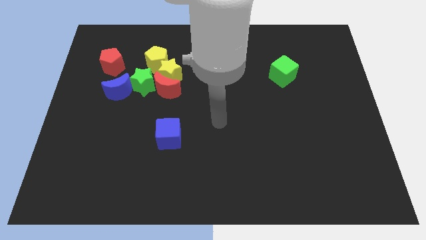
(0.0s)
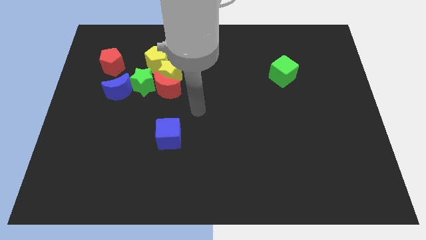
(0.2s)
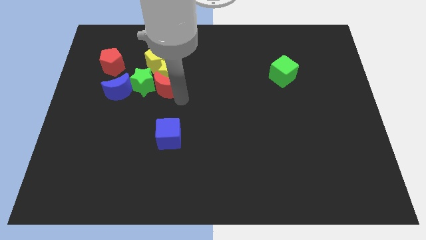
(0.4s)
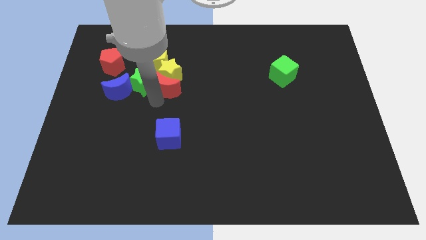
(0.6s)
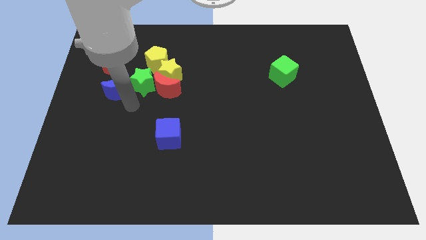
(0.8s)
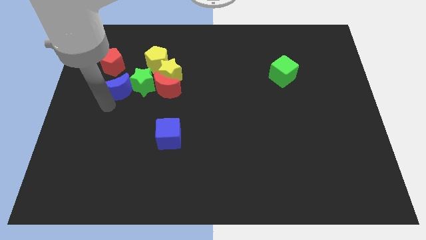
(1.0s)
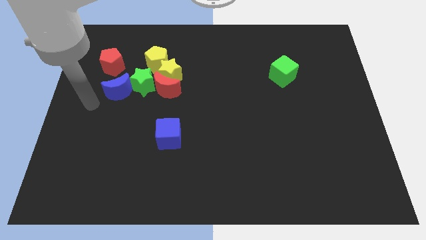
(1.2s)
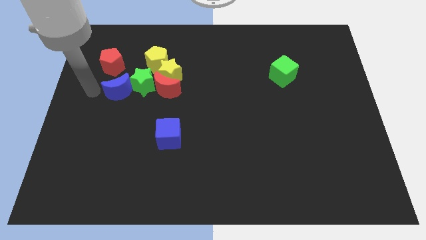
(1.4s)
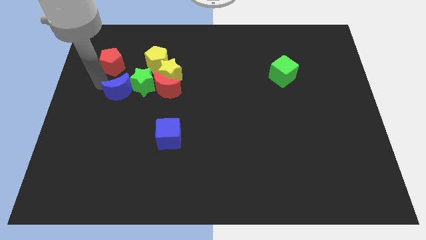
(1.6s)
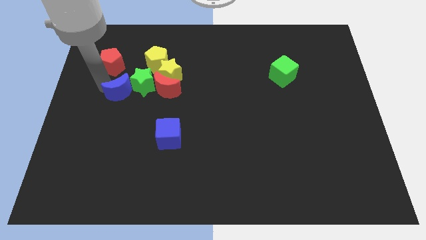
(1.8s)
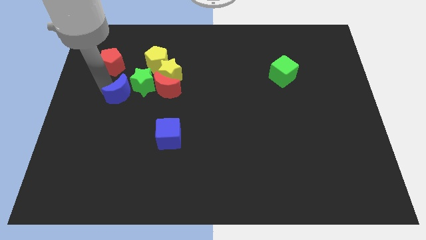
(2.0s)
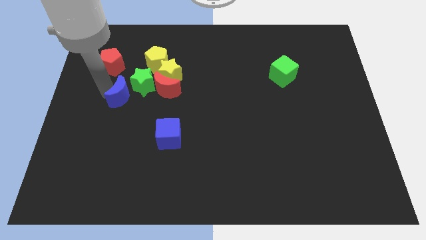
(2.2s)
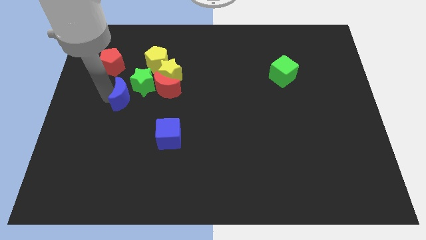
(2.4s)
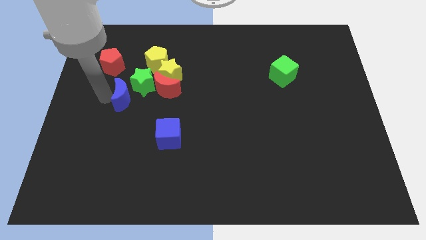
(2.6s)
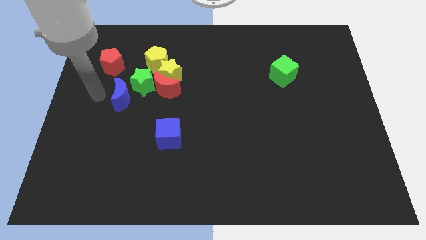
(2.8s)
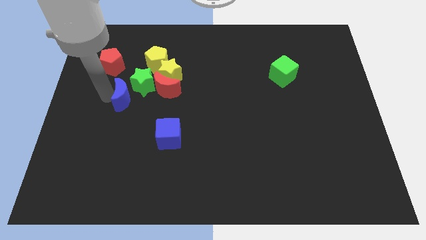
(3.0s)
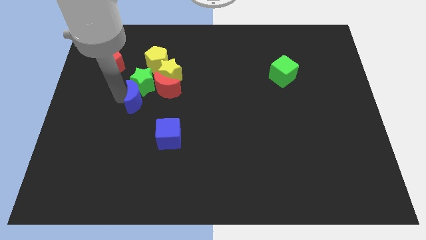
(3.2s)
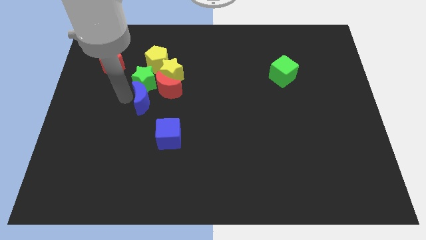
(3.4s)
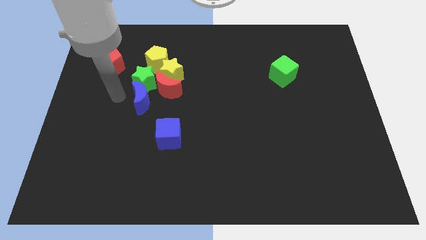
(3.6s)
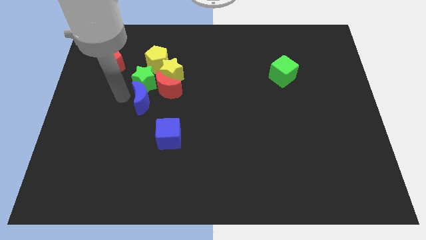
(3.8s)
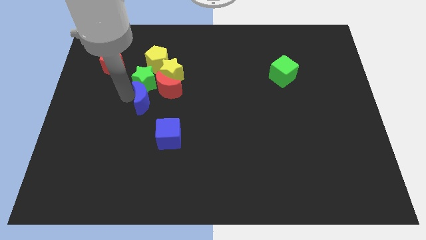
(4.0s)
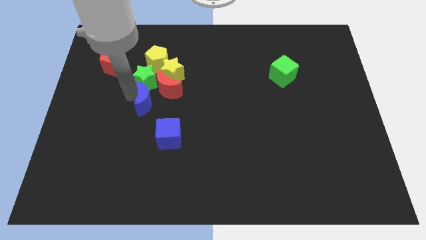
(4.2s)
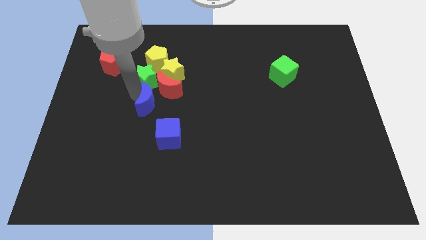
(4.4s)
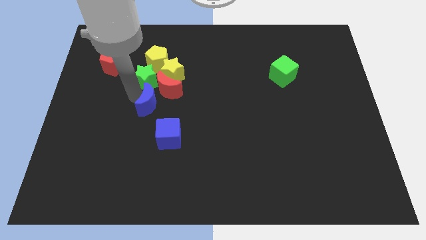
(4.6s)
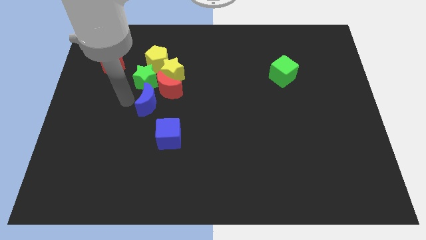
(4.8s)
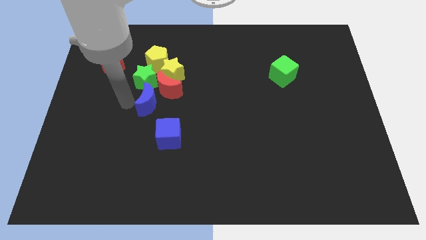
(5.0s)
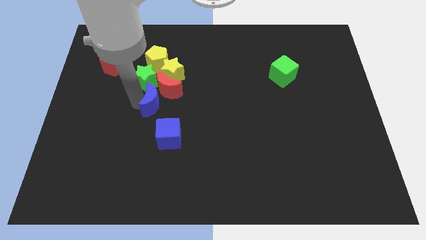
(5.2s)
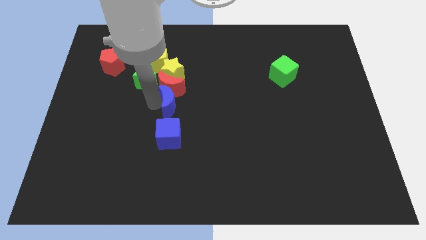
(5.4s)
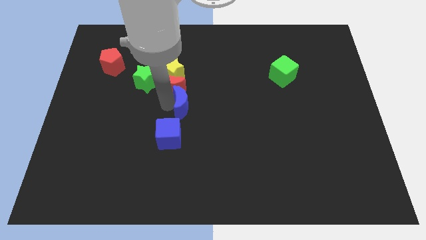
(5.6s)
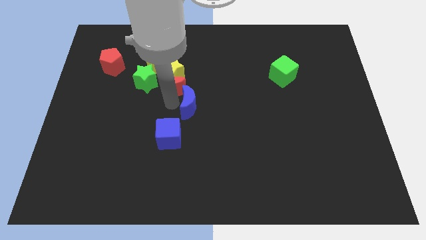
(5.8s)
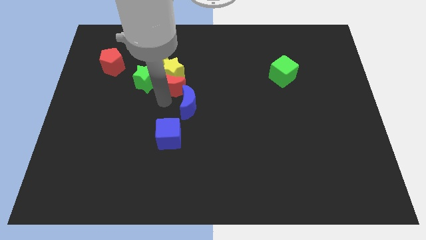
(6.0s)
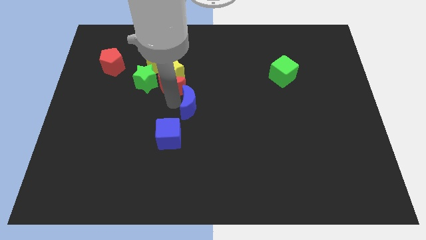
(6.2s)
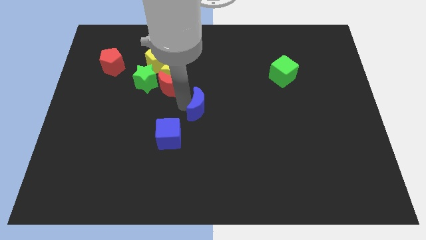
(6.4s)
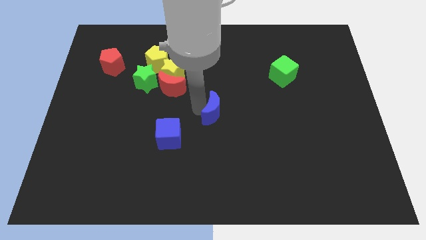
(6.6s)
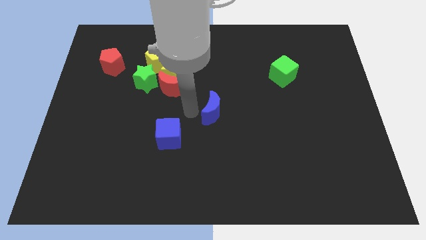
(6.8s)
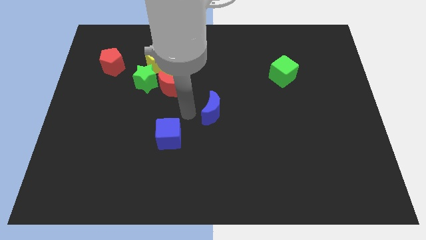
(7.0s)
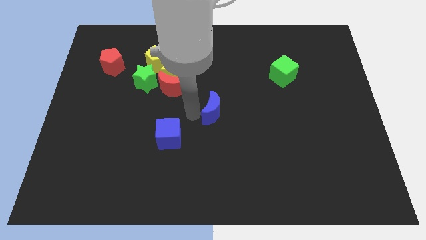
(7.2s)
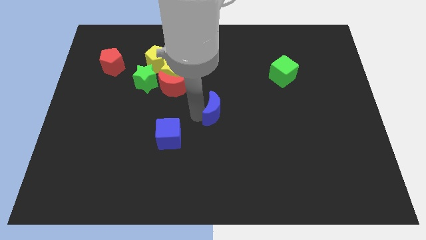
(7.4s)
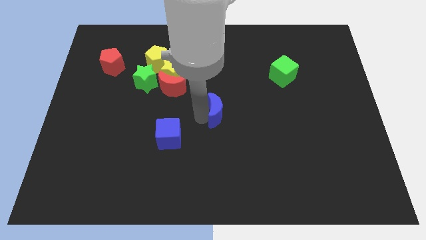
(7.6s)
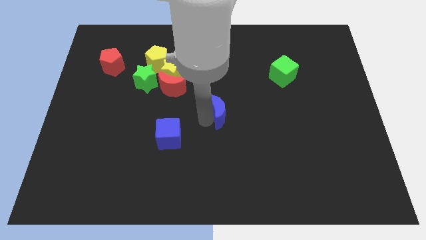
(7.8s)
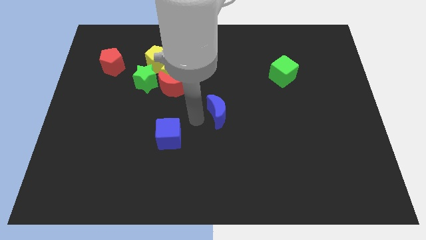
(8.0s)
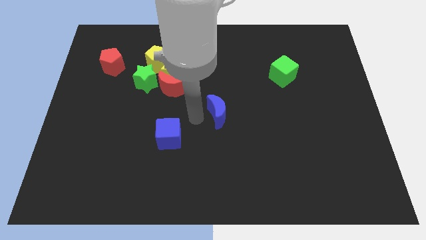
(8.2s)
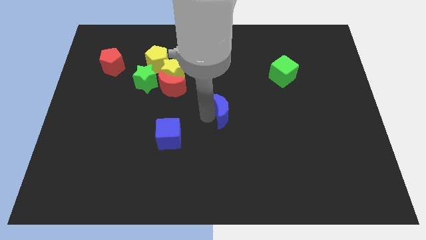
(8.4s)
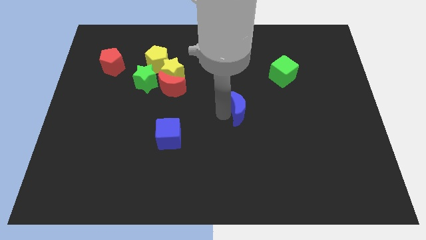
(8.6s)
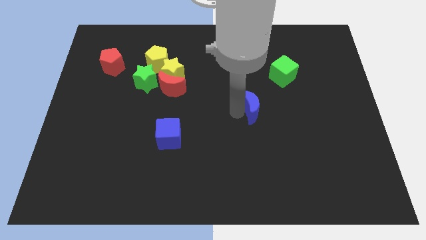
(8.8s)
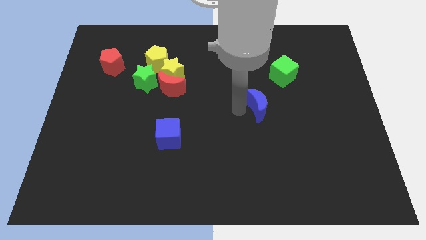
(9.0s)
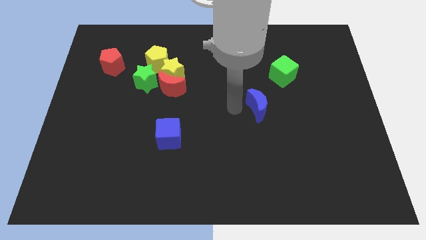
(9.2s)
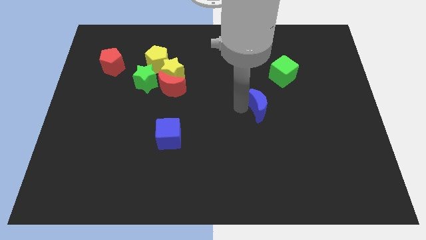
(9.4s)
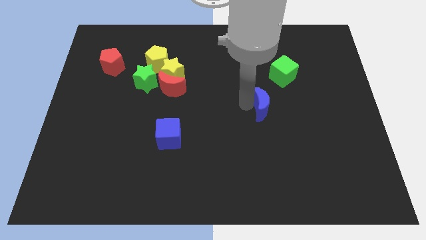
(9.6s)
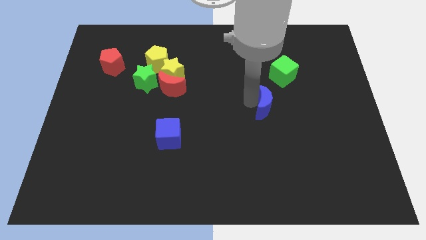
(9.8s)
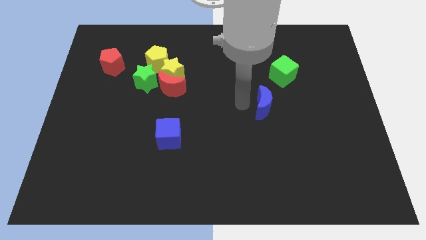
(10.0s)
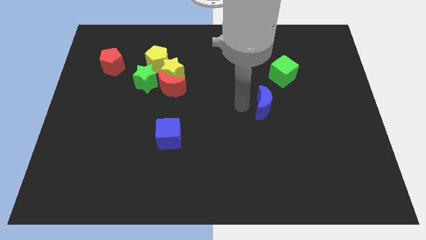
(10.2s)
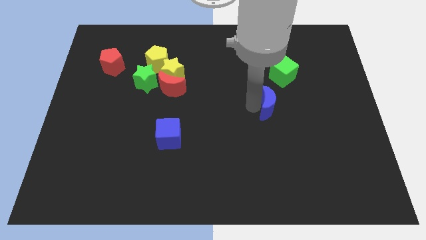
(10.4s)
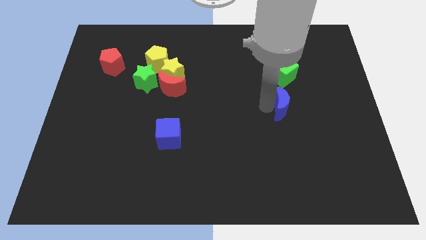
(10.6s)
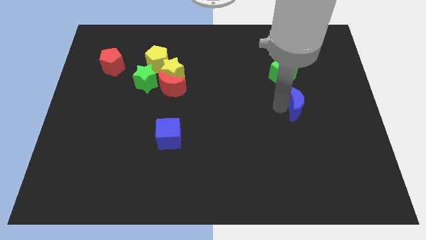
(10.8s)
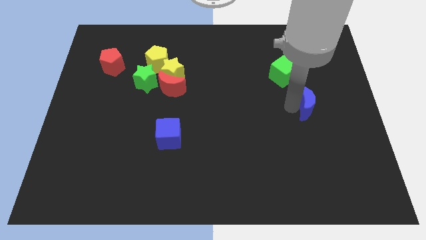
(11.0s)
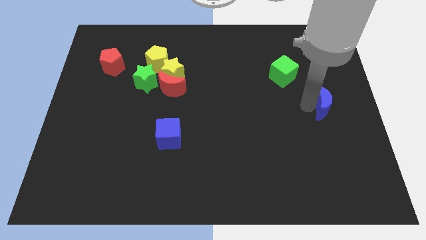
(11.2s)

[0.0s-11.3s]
move the blue moon to the right side

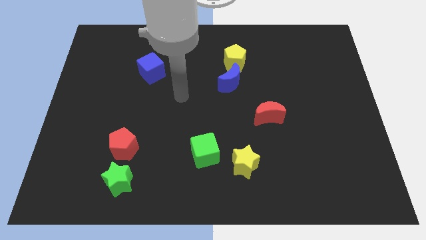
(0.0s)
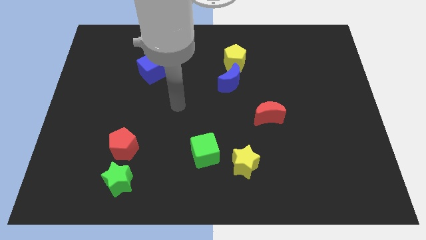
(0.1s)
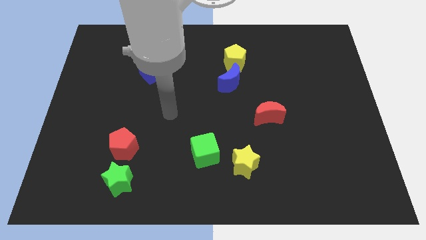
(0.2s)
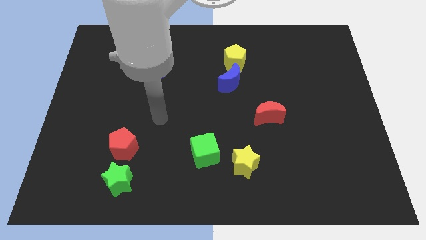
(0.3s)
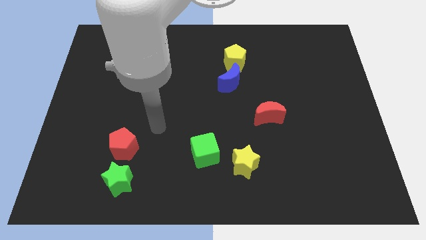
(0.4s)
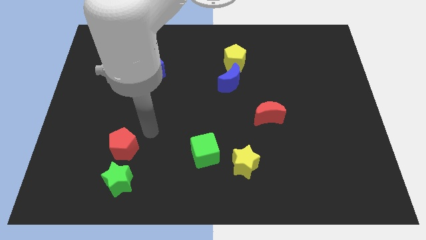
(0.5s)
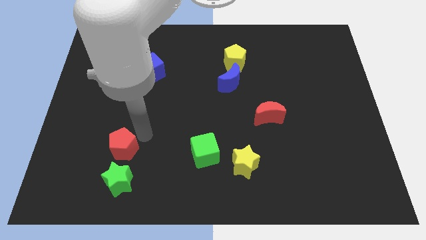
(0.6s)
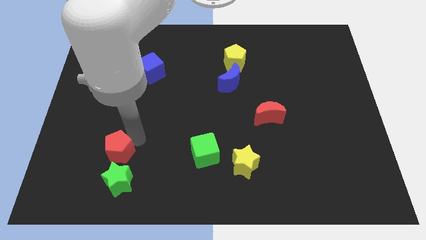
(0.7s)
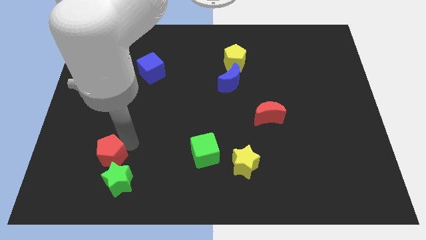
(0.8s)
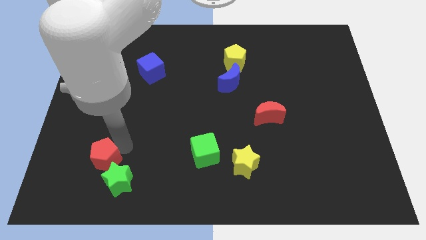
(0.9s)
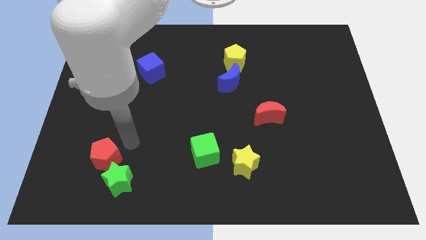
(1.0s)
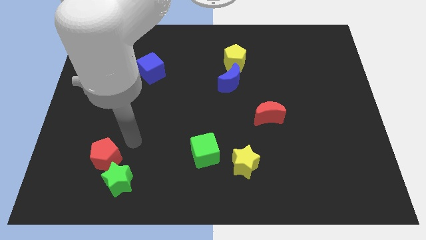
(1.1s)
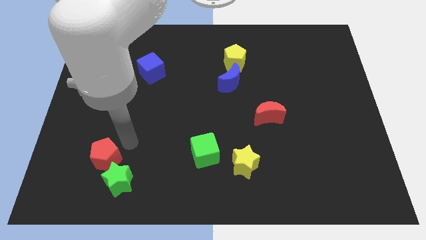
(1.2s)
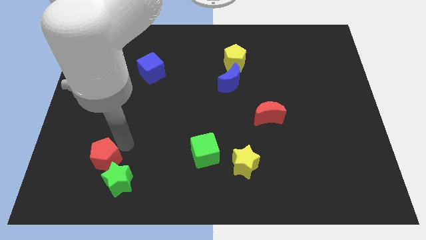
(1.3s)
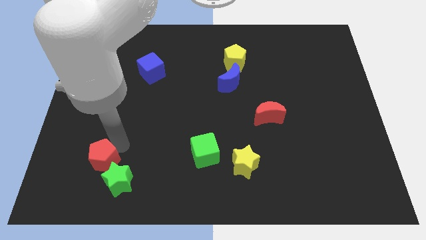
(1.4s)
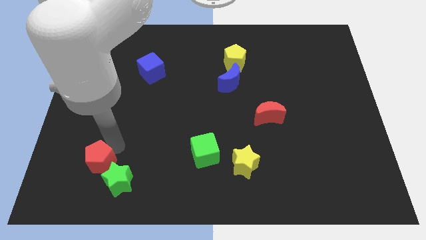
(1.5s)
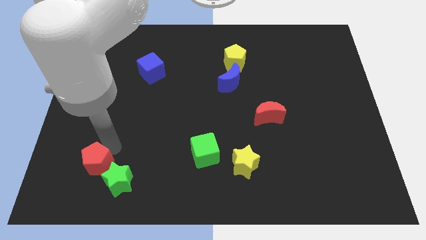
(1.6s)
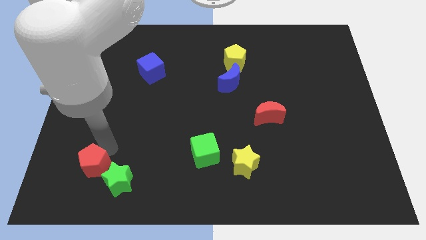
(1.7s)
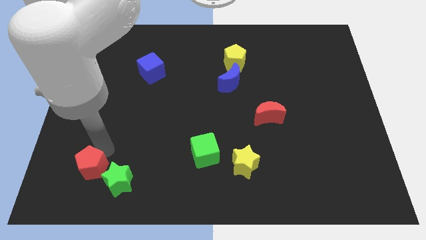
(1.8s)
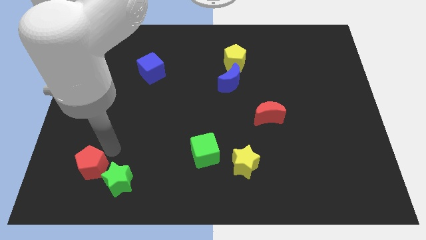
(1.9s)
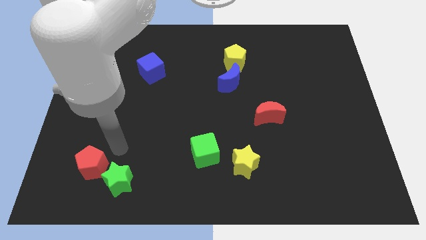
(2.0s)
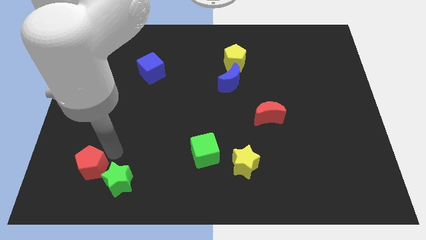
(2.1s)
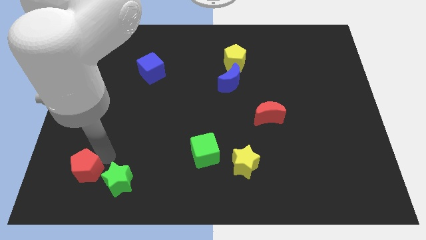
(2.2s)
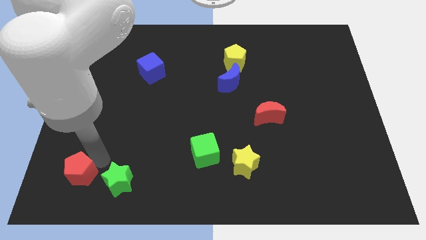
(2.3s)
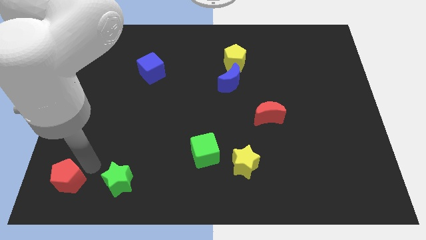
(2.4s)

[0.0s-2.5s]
slide the red pentagon to the lower left corner
